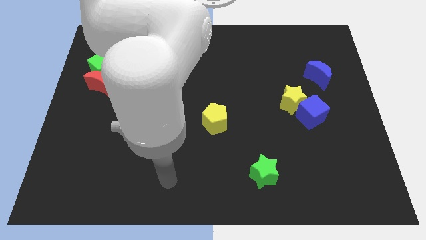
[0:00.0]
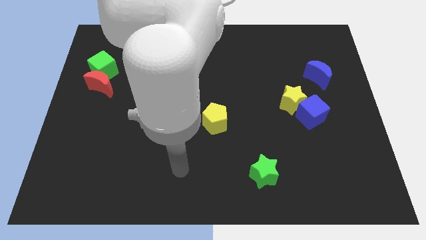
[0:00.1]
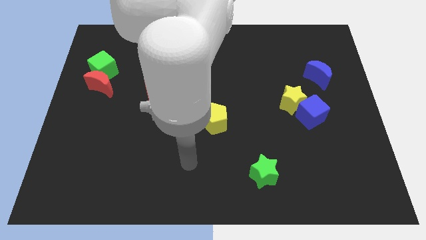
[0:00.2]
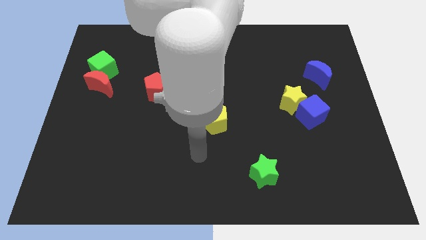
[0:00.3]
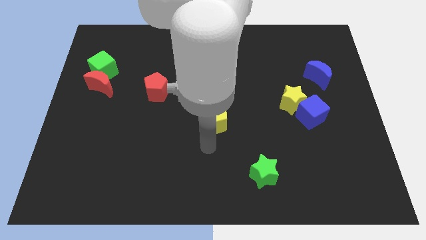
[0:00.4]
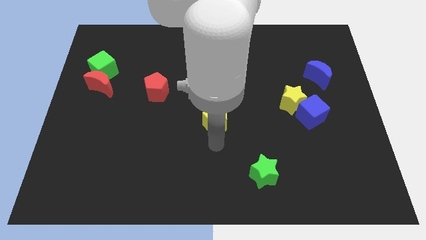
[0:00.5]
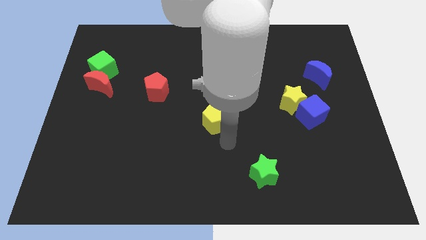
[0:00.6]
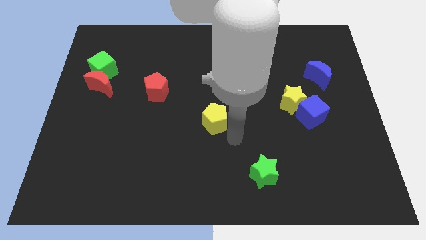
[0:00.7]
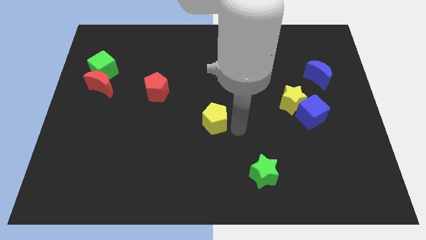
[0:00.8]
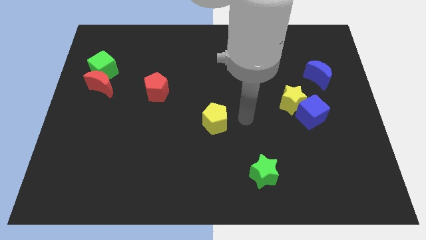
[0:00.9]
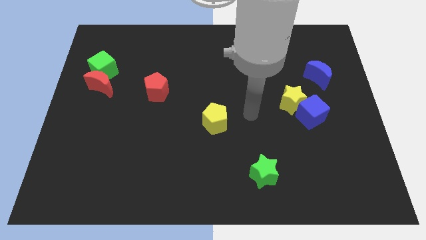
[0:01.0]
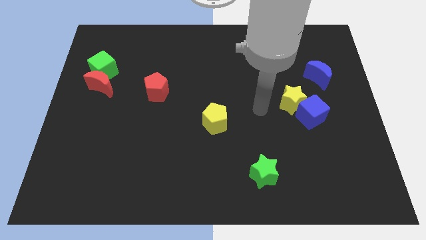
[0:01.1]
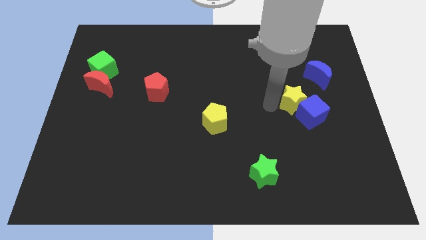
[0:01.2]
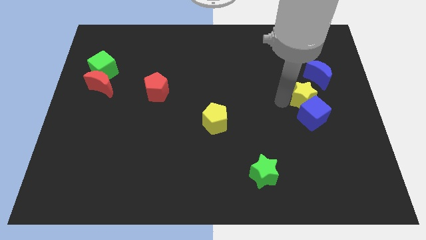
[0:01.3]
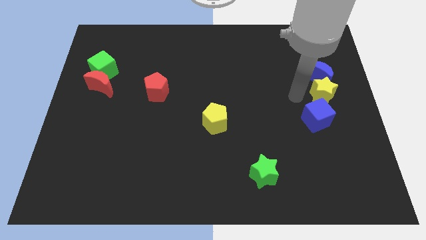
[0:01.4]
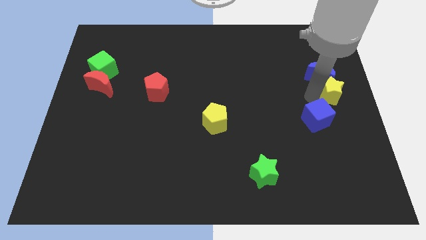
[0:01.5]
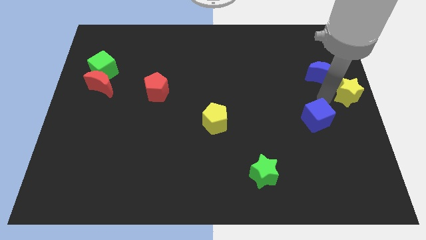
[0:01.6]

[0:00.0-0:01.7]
move the blue cube away from the yellow star

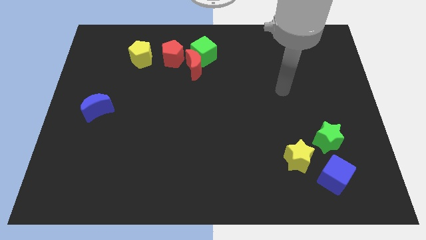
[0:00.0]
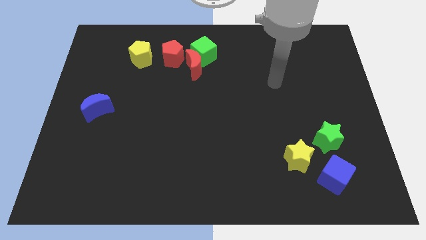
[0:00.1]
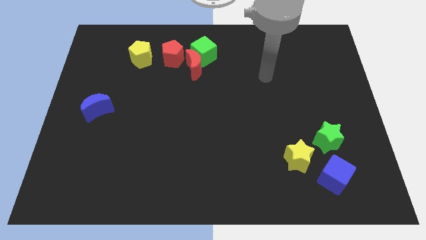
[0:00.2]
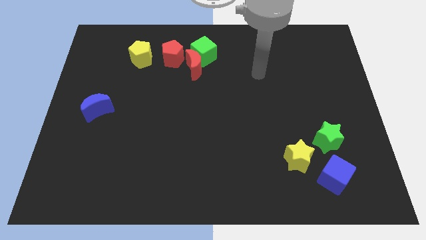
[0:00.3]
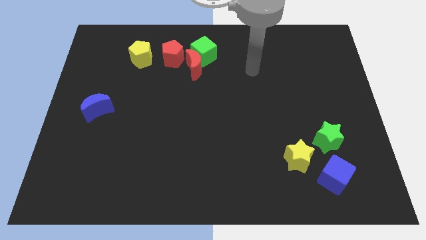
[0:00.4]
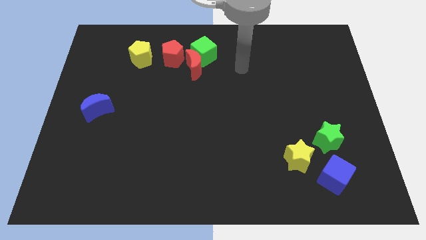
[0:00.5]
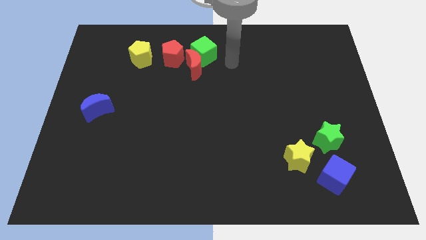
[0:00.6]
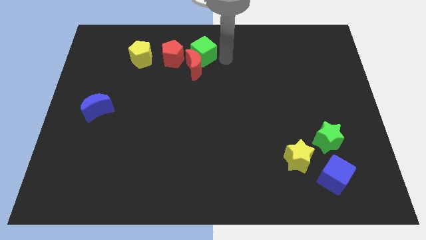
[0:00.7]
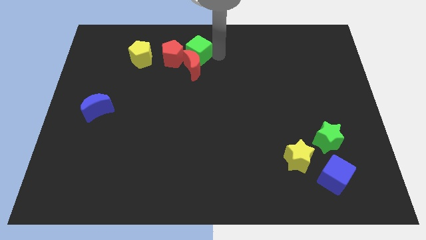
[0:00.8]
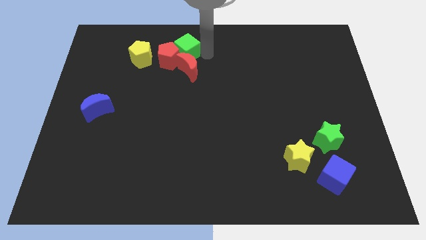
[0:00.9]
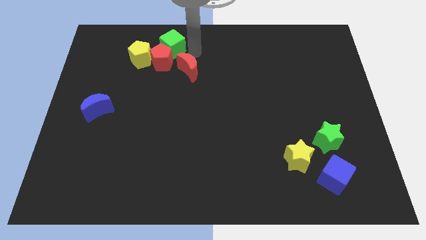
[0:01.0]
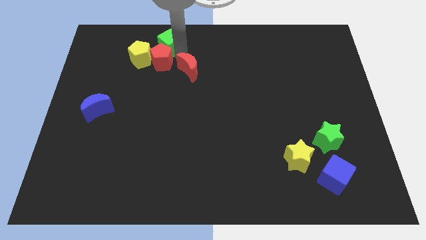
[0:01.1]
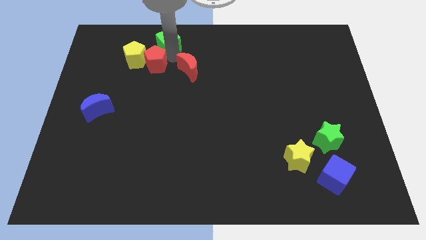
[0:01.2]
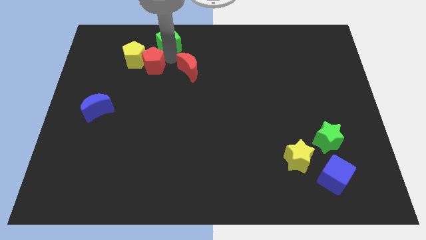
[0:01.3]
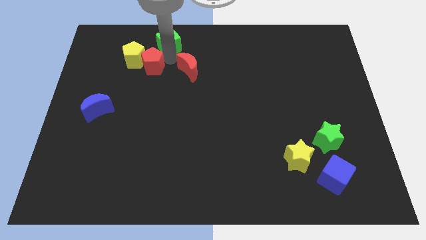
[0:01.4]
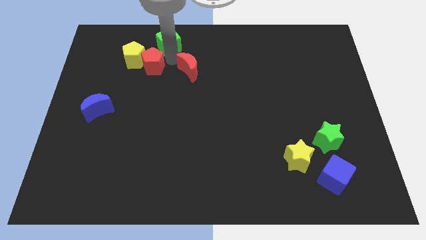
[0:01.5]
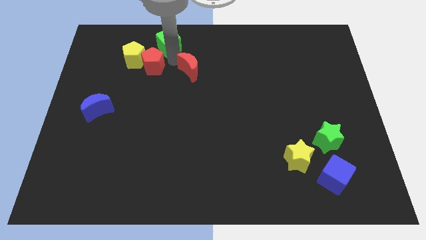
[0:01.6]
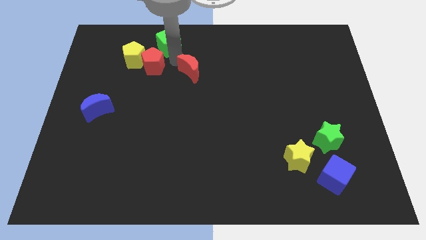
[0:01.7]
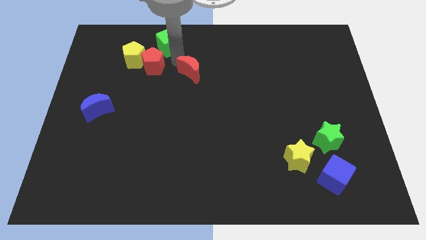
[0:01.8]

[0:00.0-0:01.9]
separate the red moon from the green cube and red pentagon

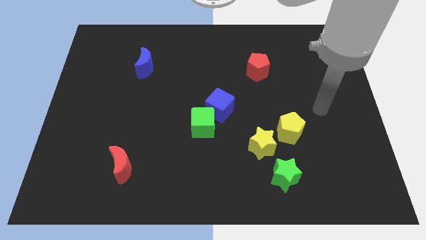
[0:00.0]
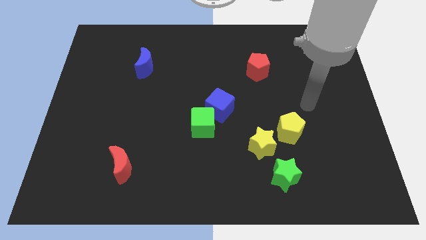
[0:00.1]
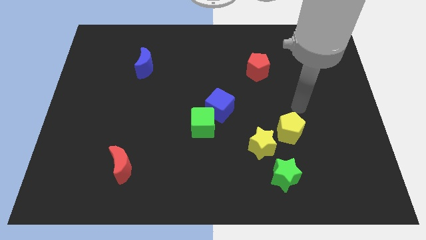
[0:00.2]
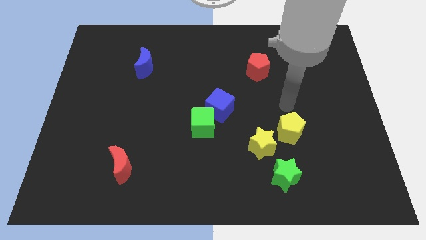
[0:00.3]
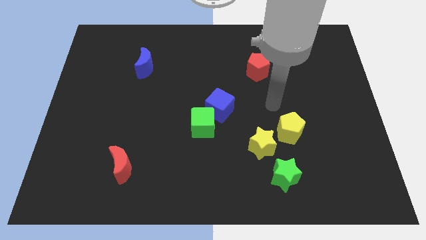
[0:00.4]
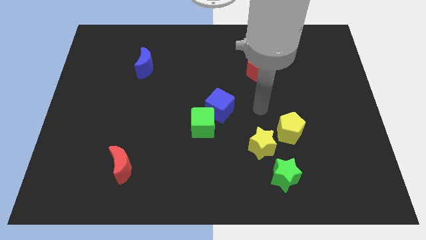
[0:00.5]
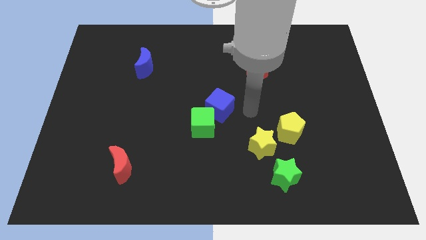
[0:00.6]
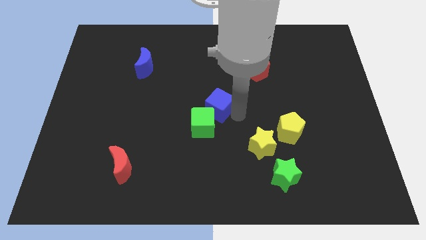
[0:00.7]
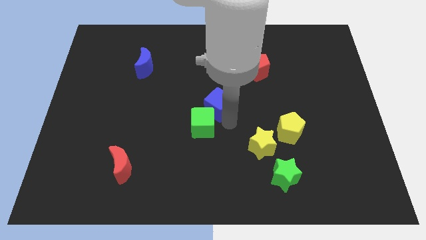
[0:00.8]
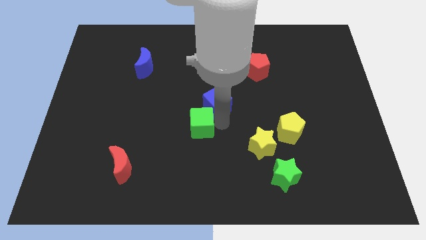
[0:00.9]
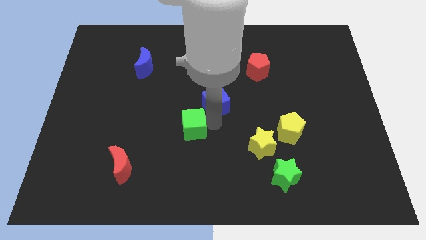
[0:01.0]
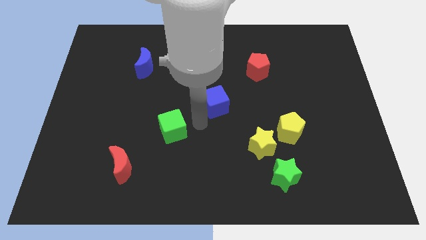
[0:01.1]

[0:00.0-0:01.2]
separate the blue cube from the green cube

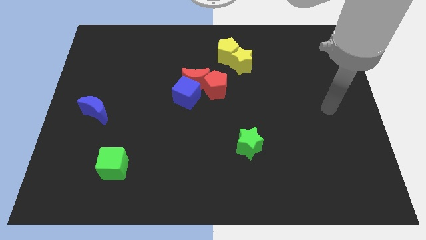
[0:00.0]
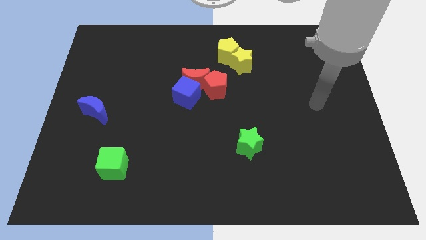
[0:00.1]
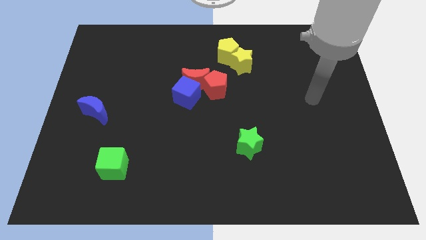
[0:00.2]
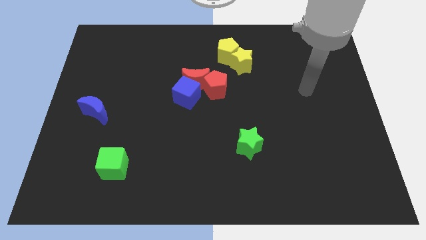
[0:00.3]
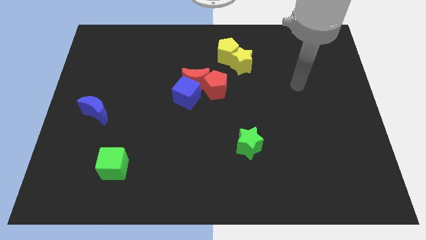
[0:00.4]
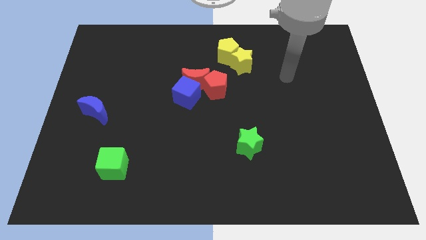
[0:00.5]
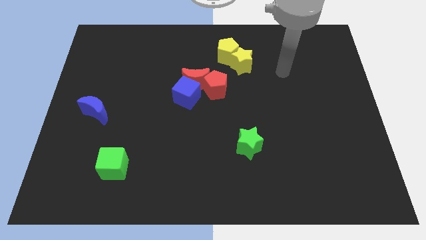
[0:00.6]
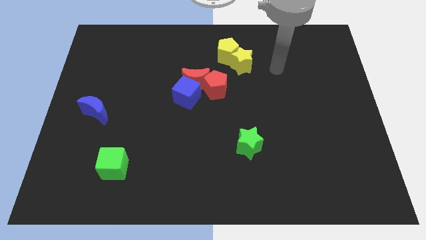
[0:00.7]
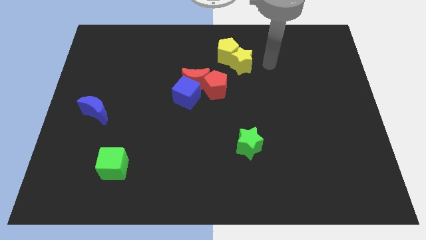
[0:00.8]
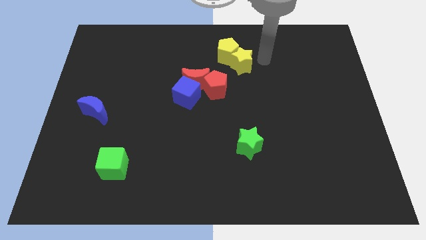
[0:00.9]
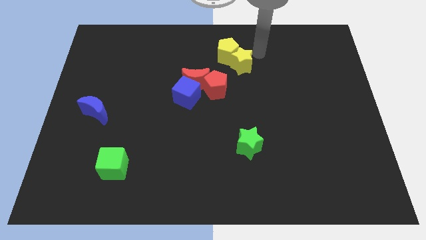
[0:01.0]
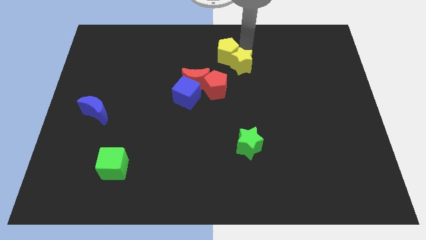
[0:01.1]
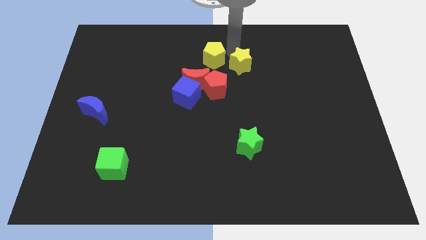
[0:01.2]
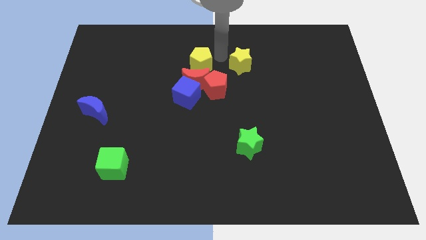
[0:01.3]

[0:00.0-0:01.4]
move the yellow star away from the yellow pentagon

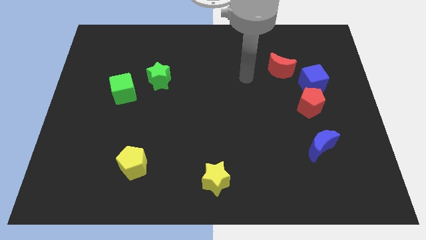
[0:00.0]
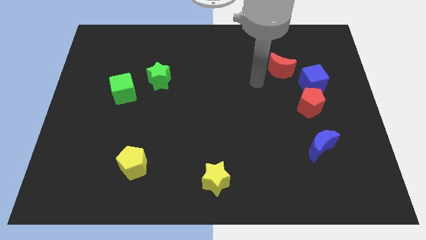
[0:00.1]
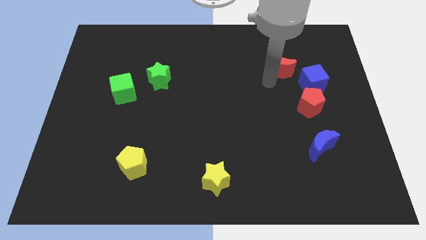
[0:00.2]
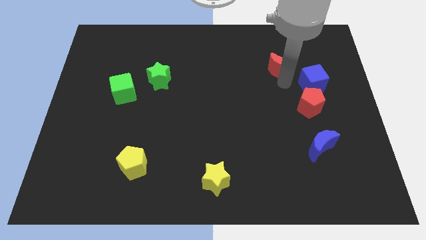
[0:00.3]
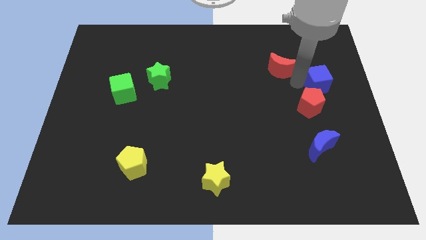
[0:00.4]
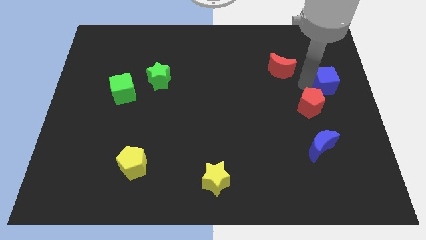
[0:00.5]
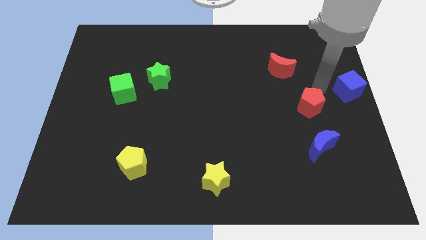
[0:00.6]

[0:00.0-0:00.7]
move the red pentagon away from the blue cube

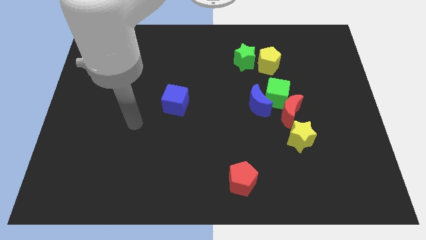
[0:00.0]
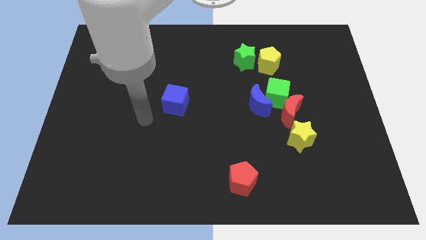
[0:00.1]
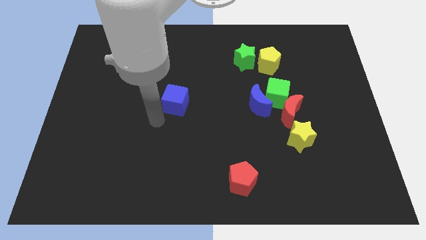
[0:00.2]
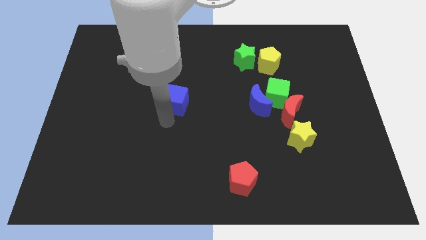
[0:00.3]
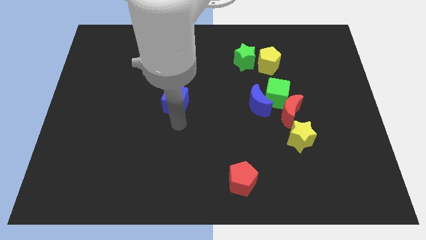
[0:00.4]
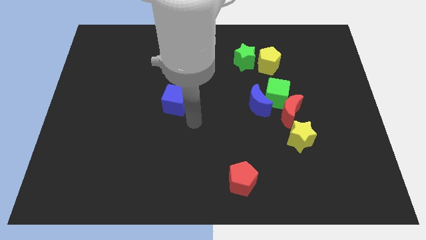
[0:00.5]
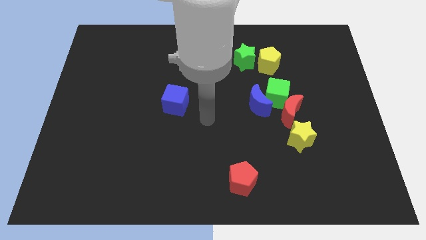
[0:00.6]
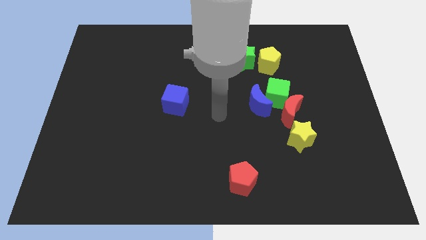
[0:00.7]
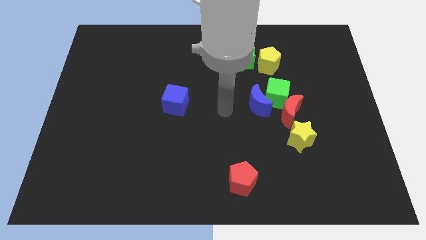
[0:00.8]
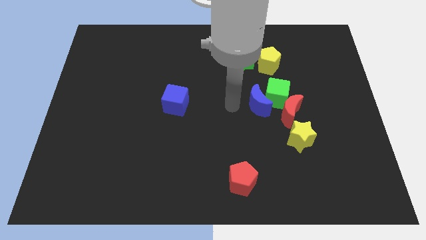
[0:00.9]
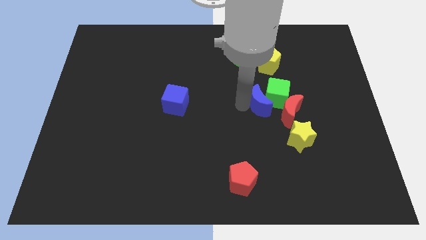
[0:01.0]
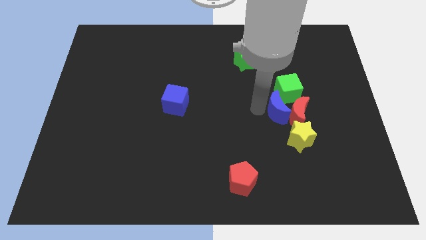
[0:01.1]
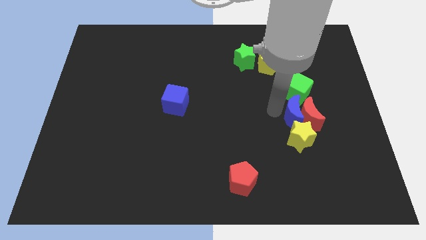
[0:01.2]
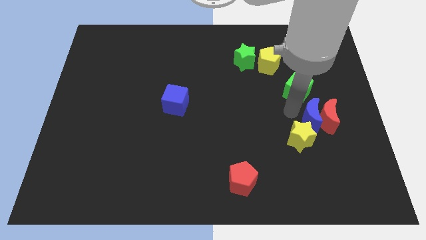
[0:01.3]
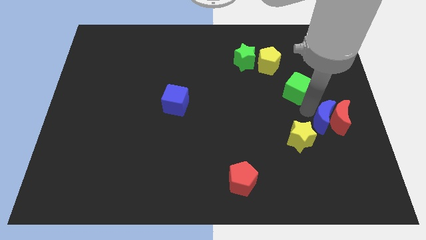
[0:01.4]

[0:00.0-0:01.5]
separate the green cube from the blue moon and red moon

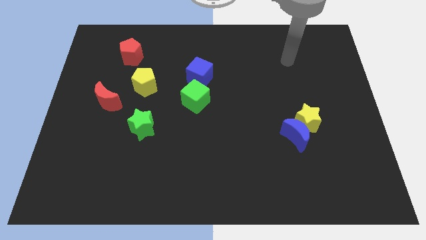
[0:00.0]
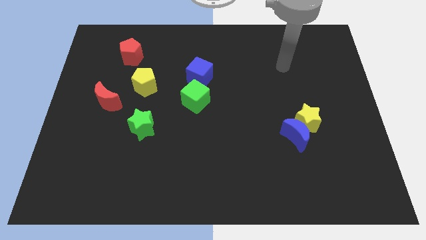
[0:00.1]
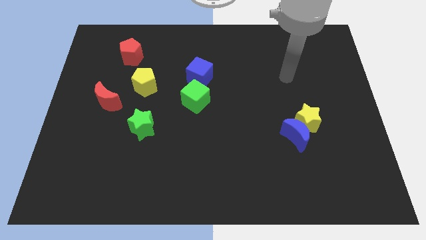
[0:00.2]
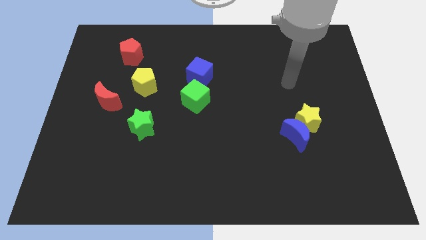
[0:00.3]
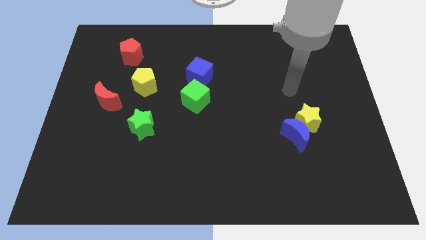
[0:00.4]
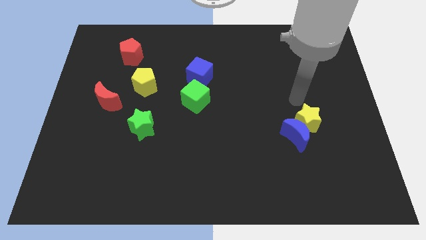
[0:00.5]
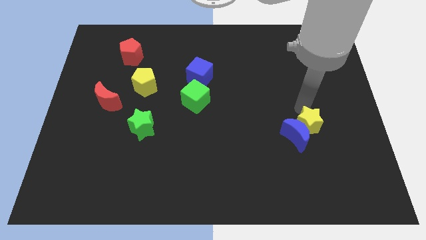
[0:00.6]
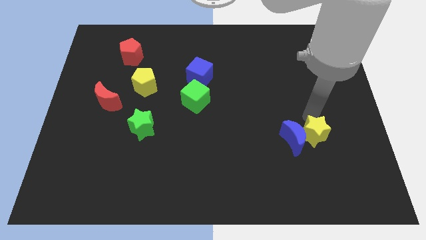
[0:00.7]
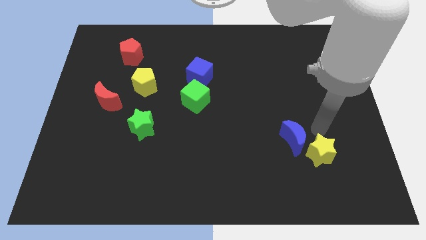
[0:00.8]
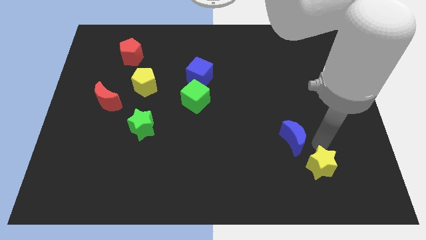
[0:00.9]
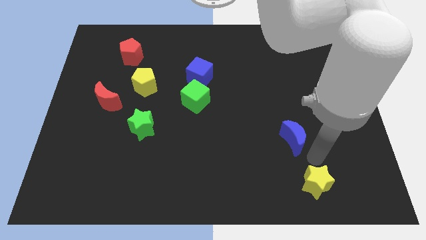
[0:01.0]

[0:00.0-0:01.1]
pull the blue moon apart from the yellow star
